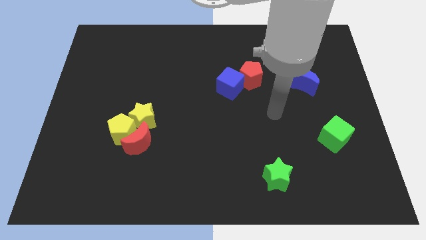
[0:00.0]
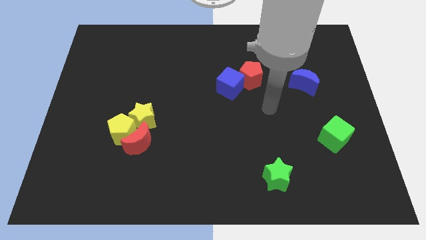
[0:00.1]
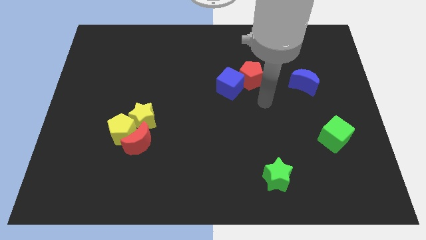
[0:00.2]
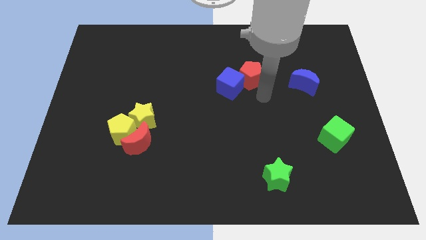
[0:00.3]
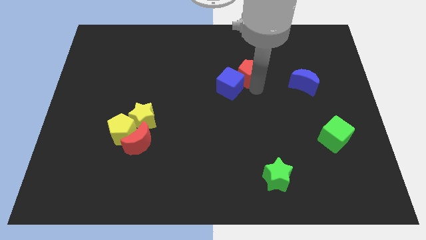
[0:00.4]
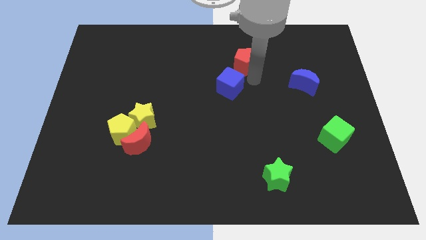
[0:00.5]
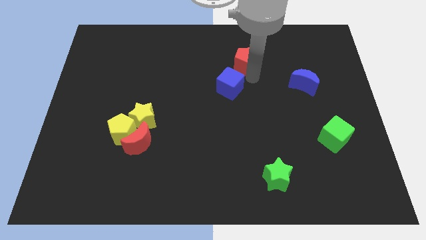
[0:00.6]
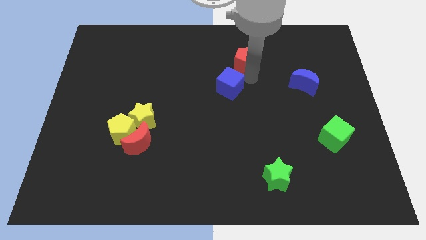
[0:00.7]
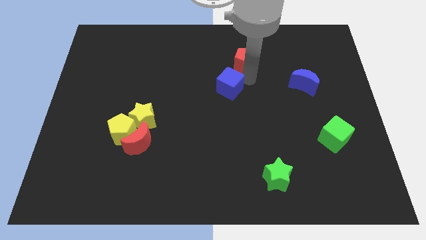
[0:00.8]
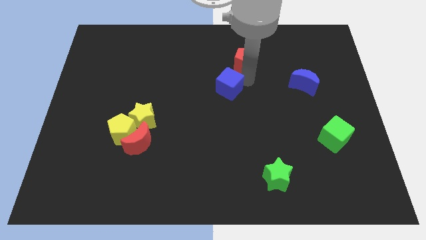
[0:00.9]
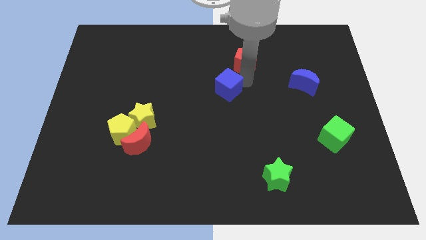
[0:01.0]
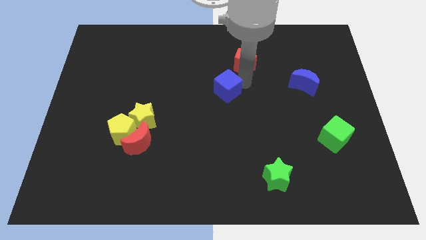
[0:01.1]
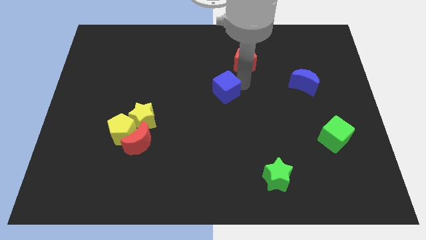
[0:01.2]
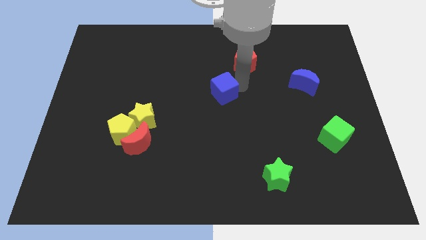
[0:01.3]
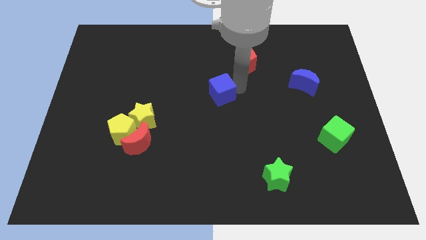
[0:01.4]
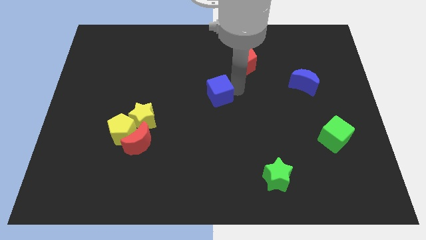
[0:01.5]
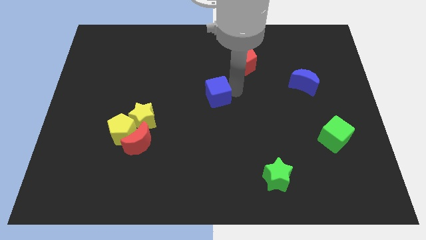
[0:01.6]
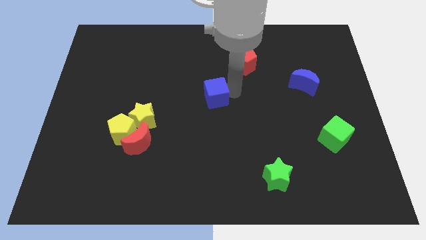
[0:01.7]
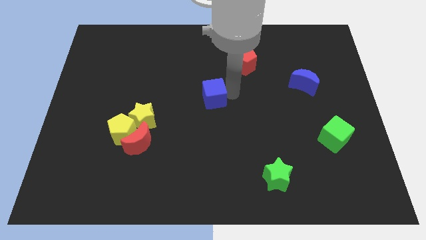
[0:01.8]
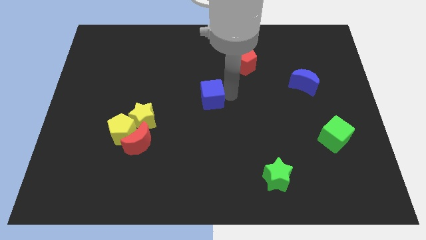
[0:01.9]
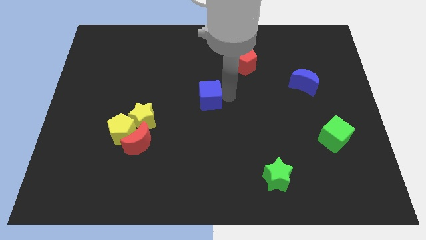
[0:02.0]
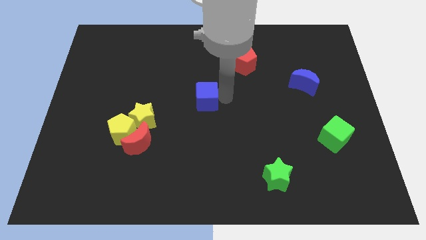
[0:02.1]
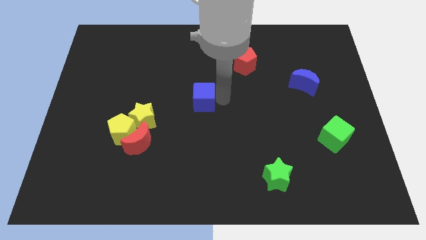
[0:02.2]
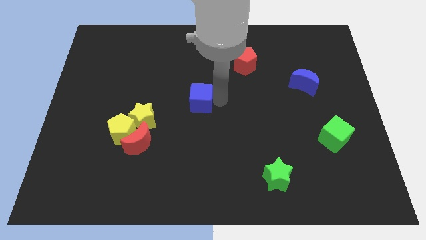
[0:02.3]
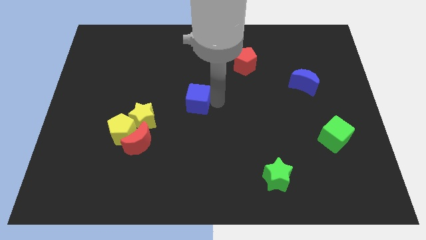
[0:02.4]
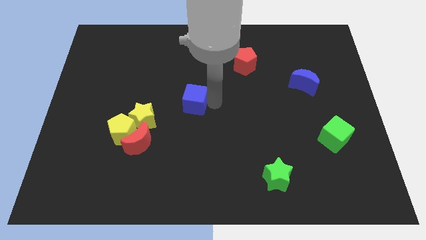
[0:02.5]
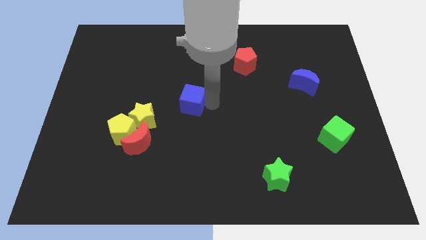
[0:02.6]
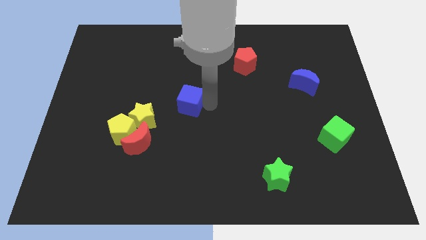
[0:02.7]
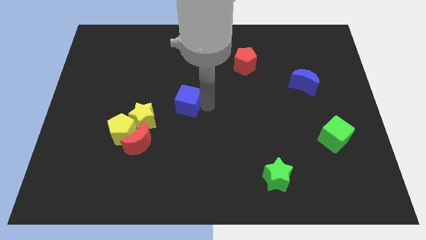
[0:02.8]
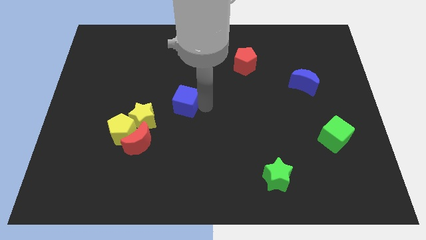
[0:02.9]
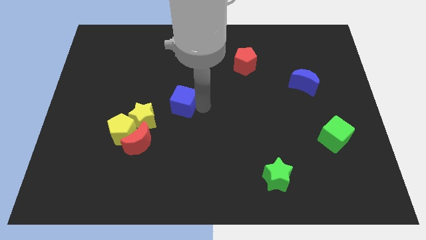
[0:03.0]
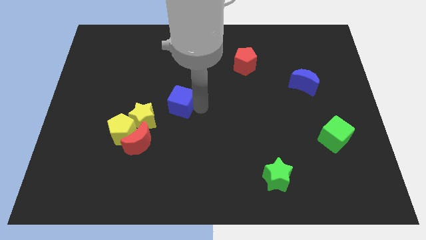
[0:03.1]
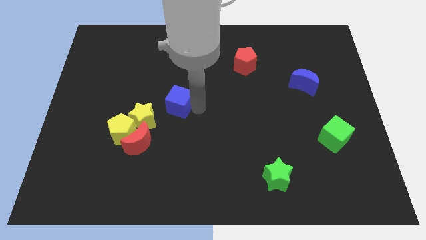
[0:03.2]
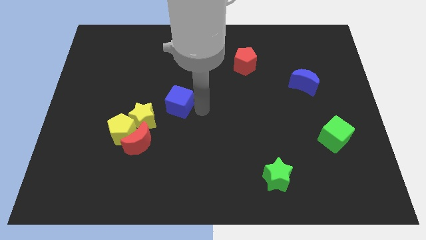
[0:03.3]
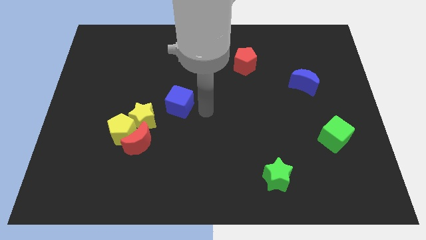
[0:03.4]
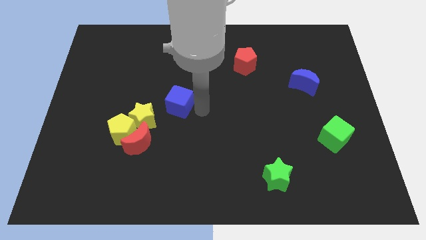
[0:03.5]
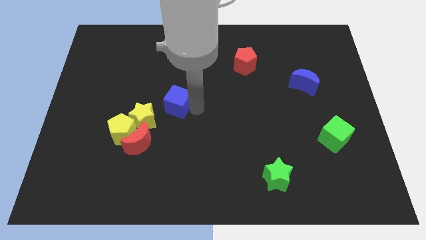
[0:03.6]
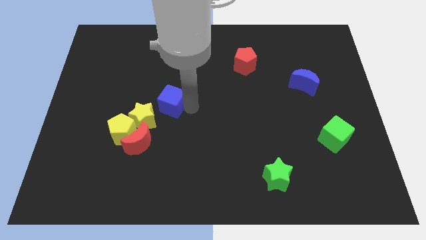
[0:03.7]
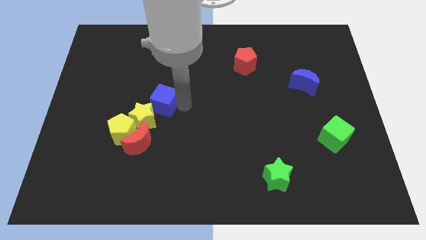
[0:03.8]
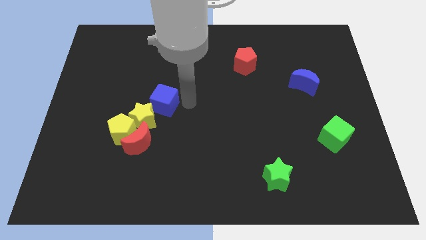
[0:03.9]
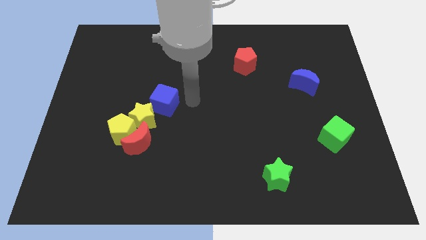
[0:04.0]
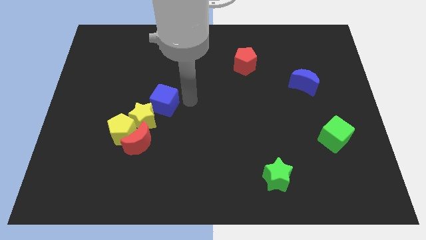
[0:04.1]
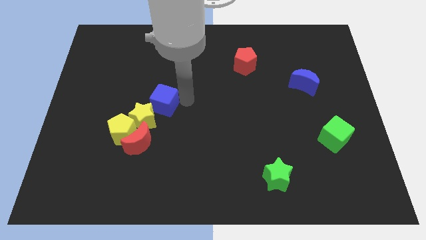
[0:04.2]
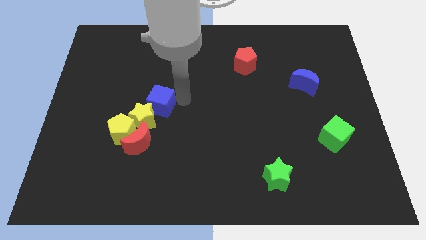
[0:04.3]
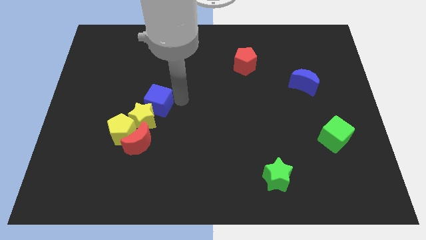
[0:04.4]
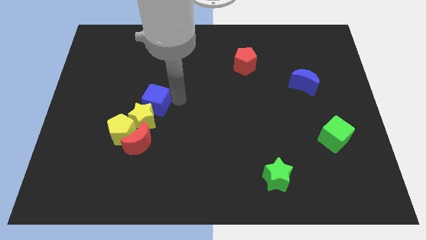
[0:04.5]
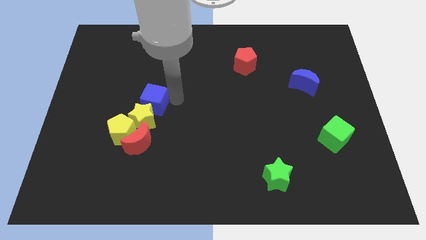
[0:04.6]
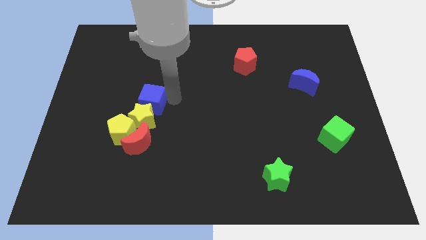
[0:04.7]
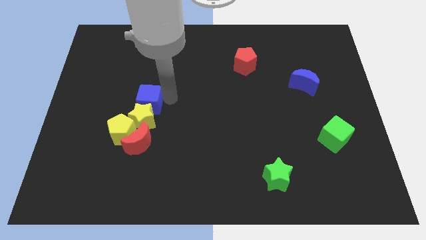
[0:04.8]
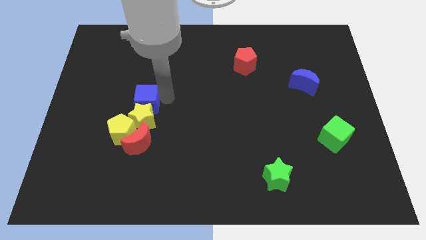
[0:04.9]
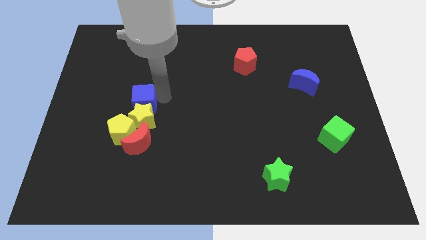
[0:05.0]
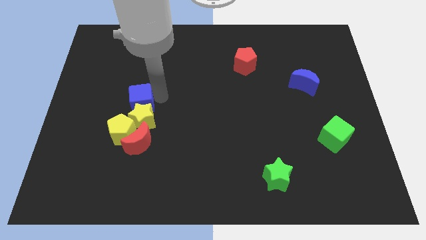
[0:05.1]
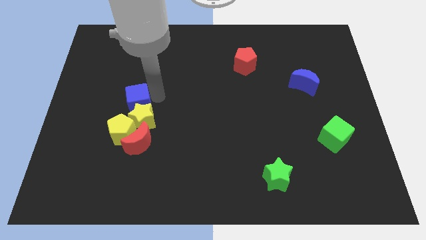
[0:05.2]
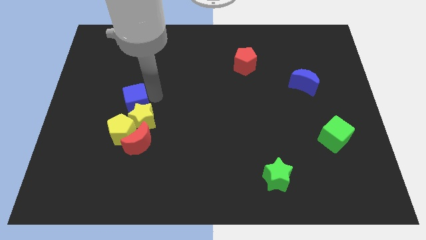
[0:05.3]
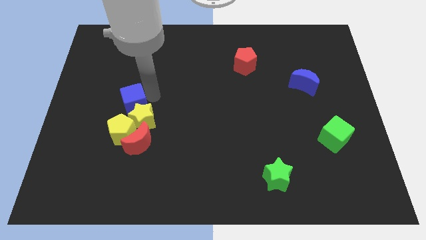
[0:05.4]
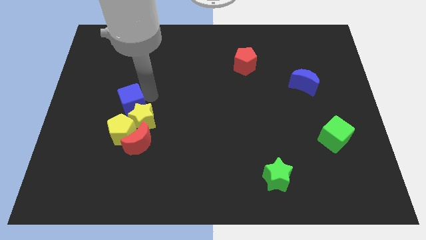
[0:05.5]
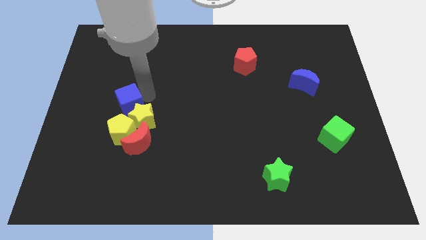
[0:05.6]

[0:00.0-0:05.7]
push the blue cube left of the yellow star

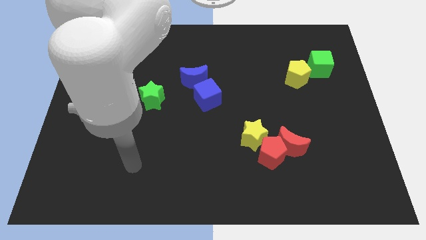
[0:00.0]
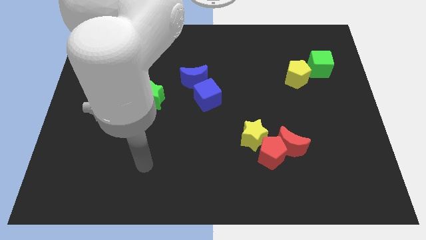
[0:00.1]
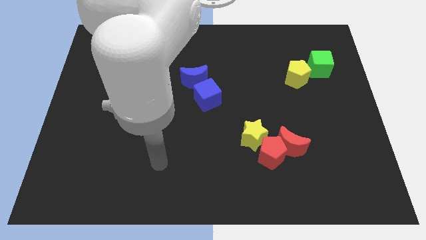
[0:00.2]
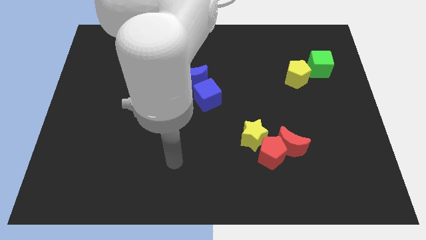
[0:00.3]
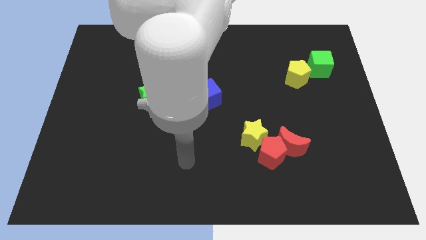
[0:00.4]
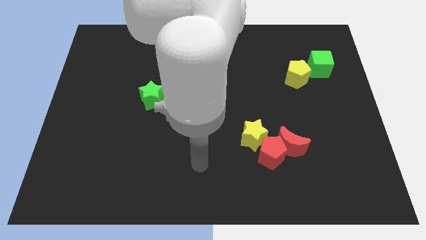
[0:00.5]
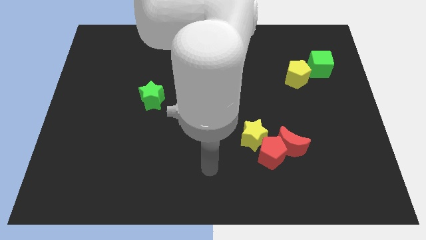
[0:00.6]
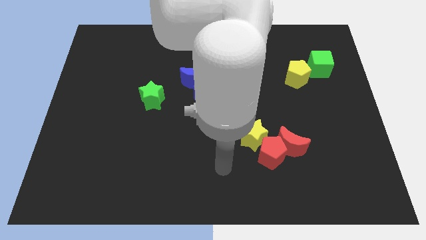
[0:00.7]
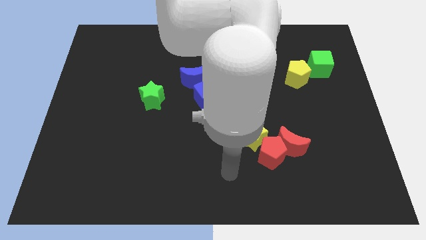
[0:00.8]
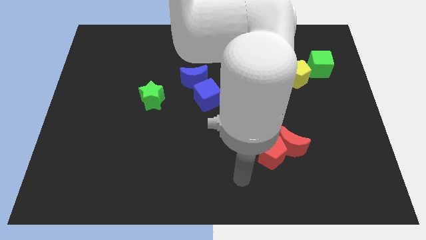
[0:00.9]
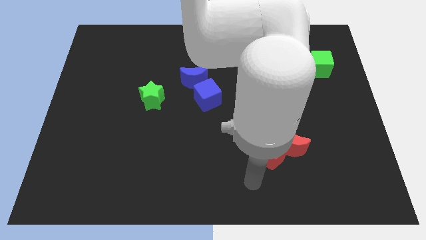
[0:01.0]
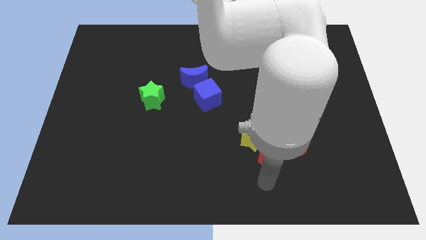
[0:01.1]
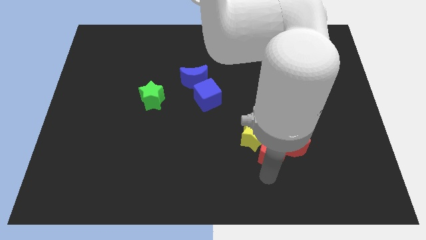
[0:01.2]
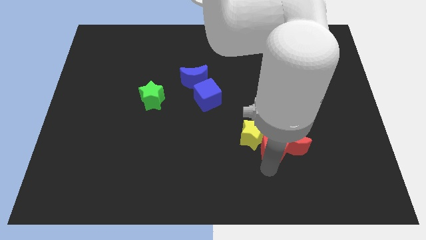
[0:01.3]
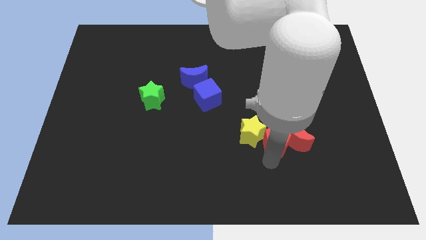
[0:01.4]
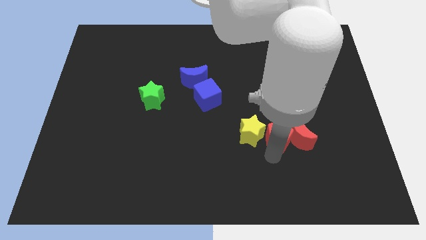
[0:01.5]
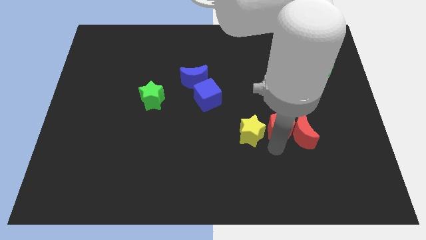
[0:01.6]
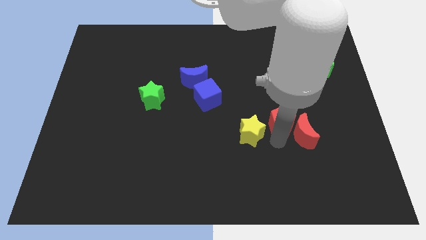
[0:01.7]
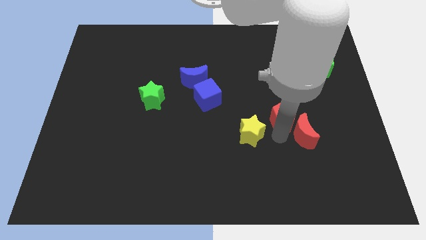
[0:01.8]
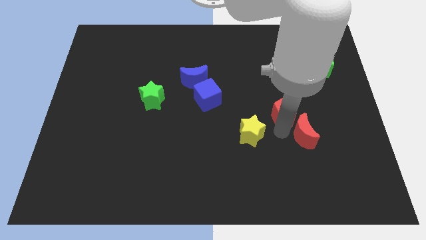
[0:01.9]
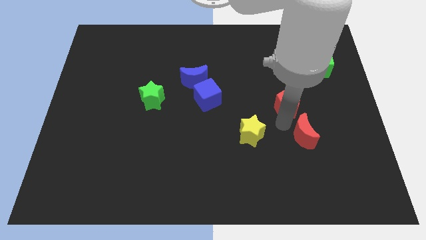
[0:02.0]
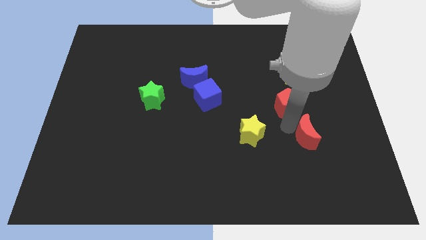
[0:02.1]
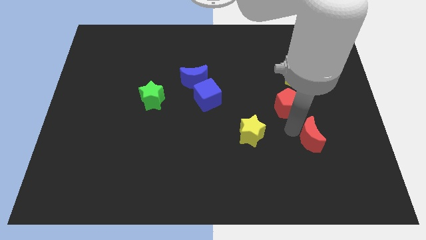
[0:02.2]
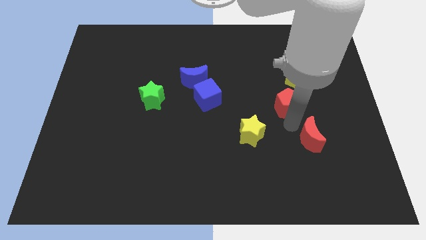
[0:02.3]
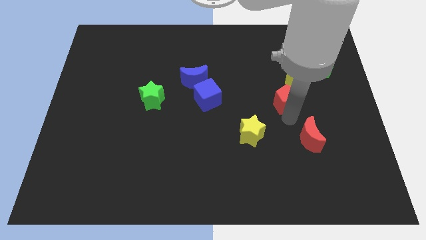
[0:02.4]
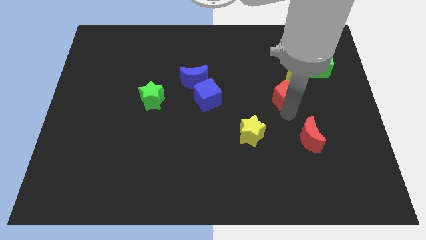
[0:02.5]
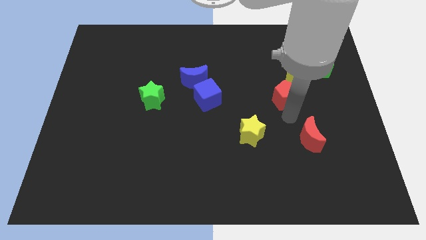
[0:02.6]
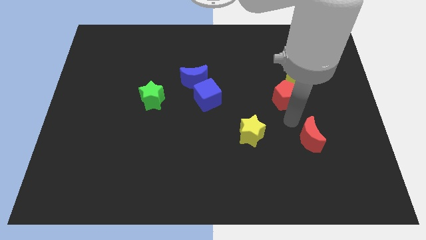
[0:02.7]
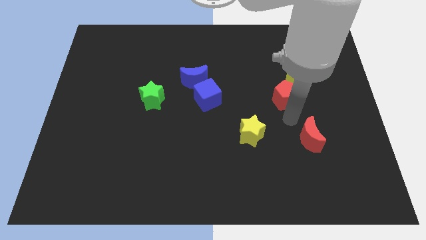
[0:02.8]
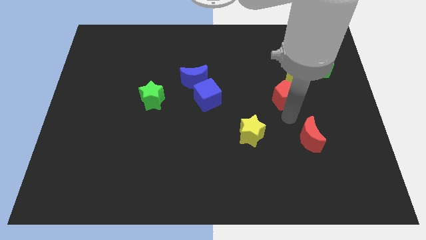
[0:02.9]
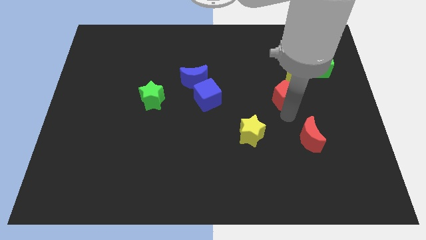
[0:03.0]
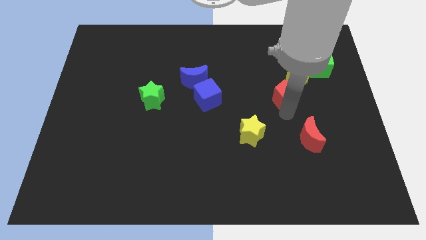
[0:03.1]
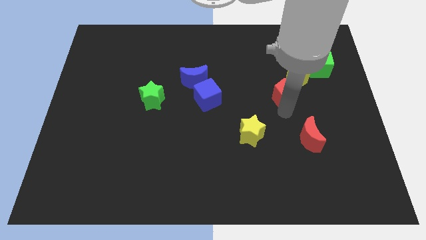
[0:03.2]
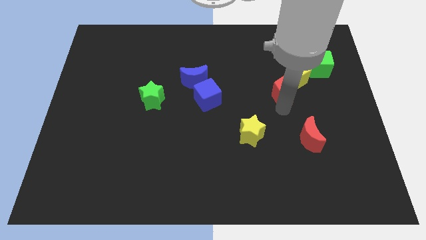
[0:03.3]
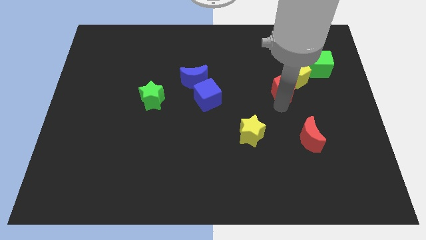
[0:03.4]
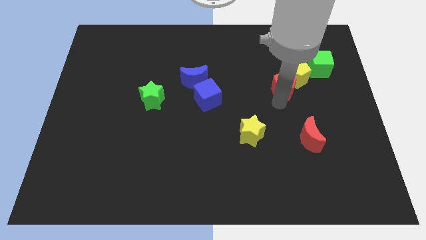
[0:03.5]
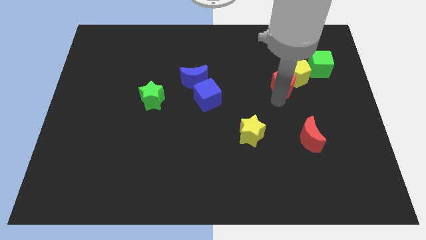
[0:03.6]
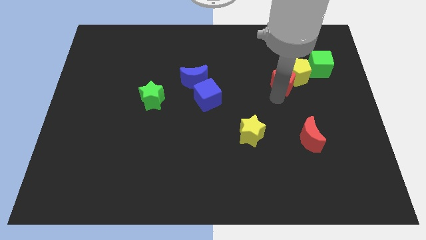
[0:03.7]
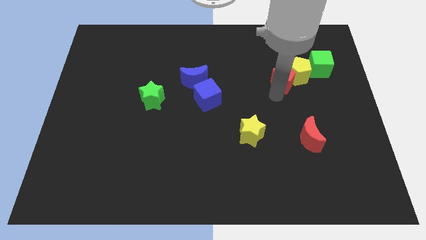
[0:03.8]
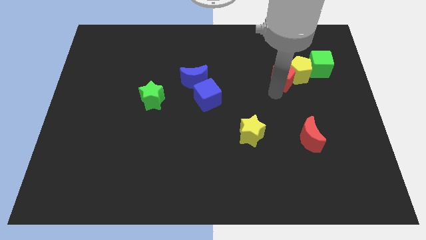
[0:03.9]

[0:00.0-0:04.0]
move the red pentagon just left of the green cube
